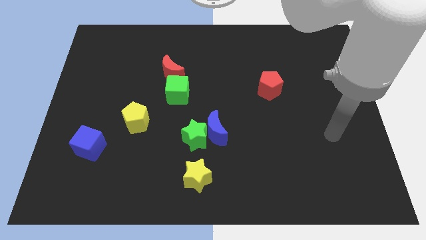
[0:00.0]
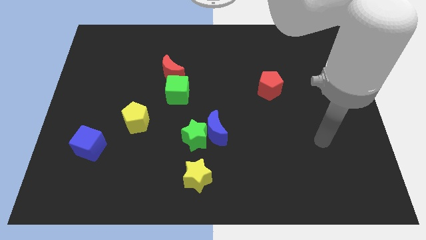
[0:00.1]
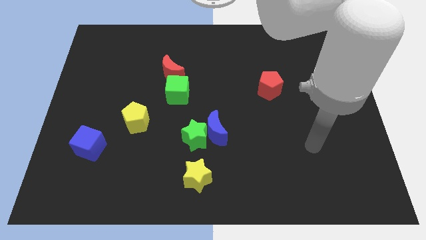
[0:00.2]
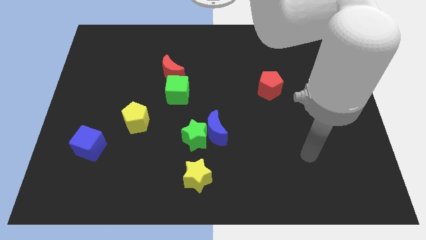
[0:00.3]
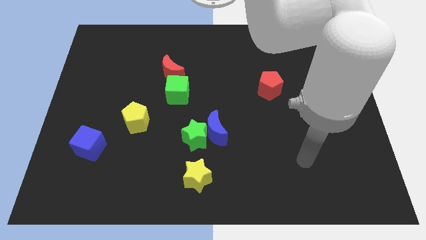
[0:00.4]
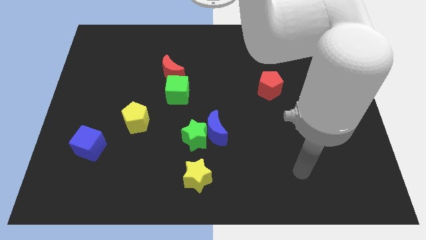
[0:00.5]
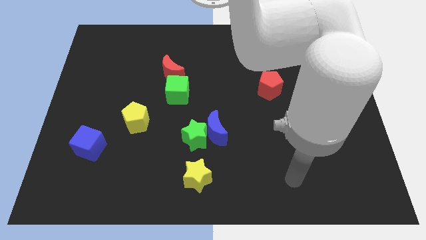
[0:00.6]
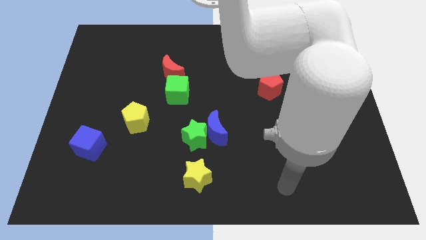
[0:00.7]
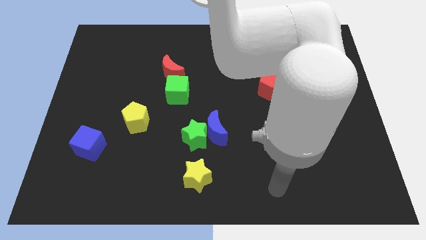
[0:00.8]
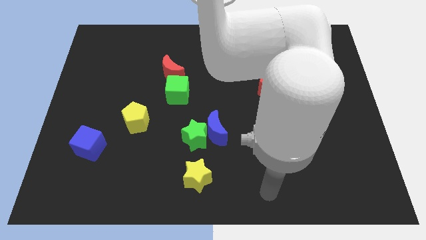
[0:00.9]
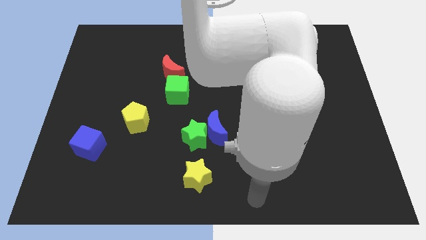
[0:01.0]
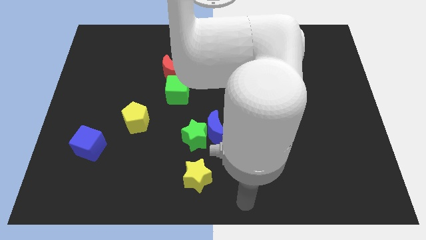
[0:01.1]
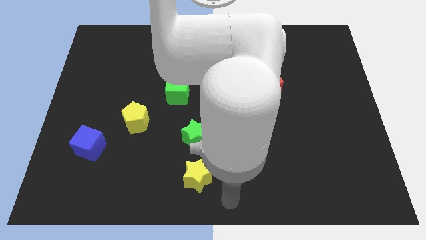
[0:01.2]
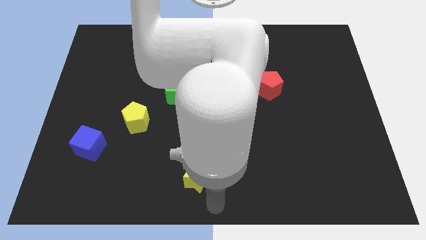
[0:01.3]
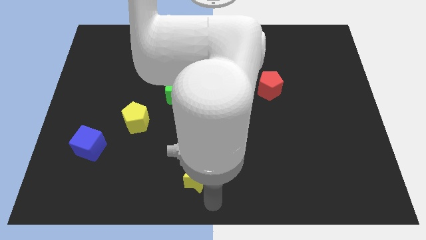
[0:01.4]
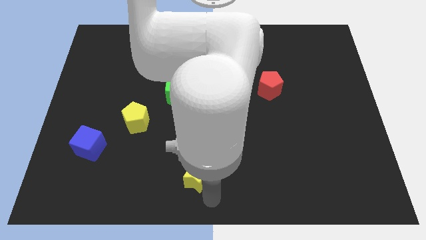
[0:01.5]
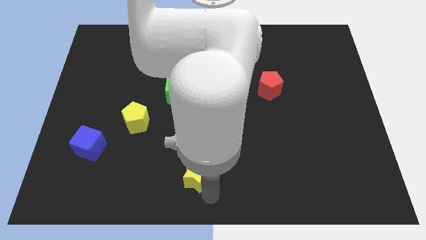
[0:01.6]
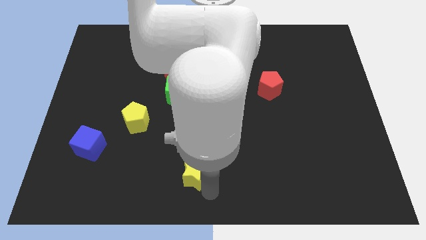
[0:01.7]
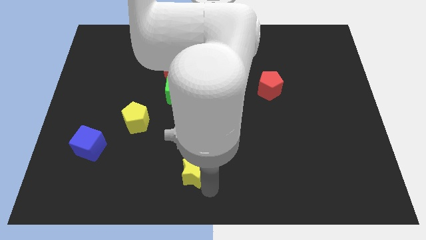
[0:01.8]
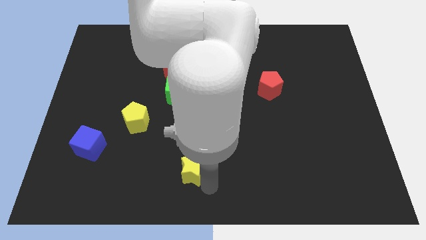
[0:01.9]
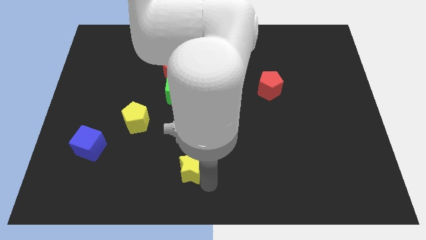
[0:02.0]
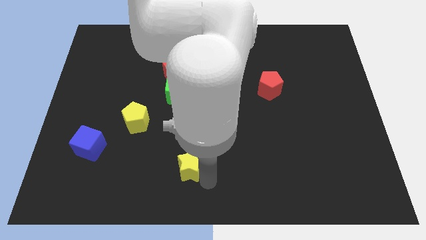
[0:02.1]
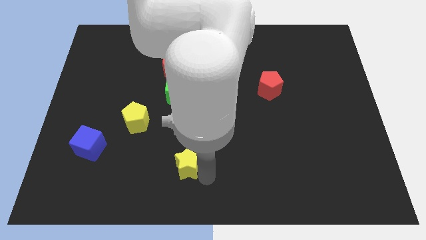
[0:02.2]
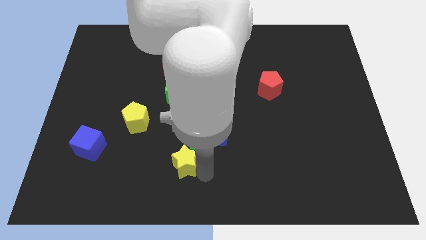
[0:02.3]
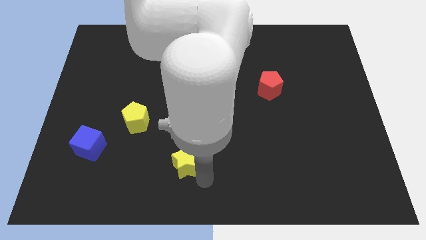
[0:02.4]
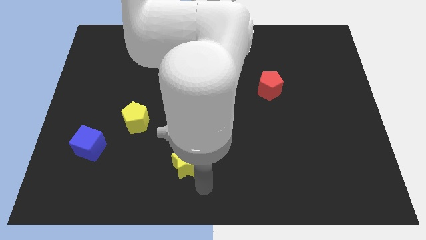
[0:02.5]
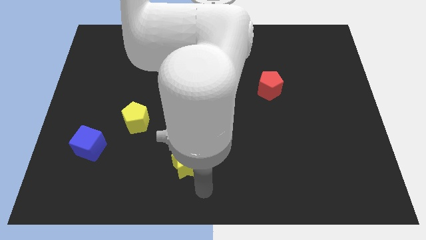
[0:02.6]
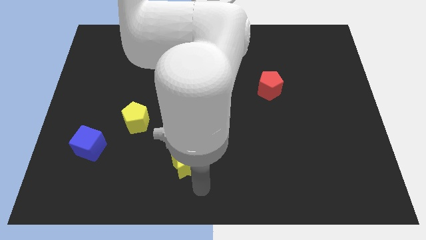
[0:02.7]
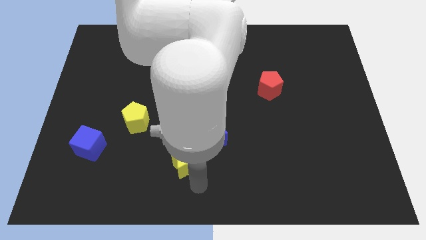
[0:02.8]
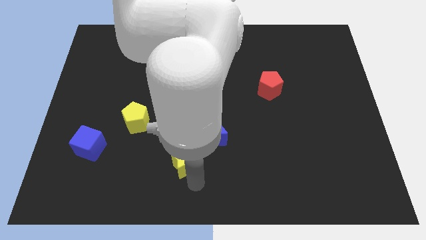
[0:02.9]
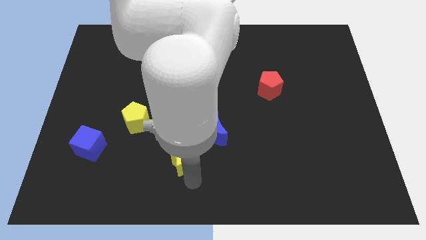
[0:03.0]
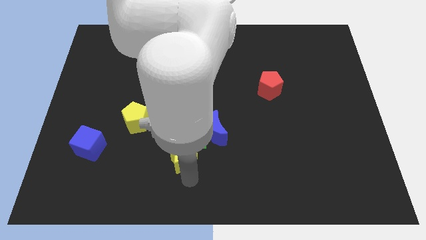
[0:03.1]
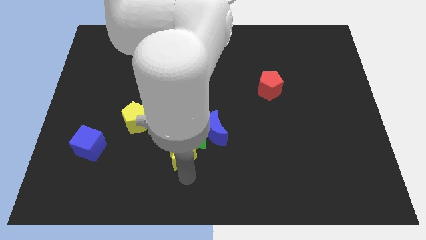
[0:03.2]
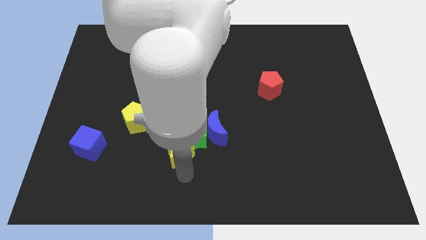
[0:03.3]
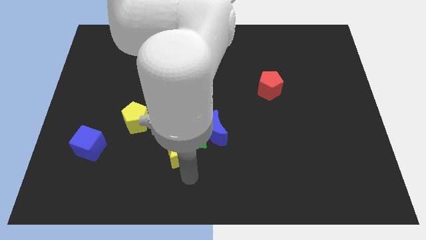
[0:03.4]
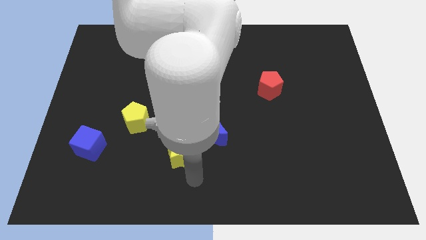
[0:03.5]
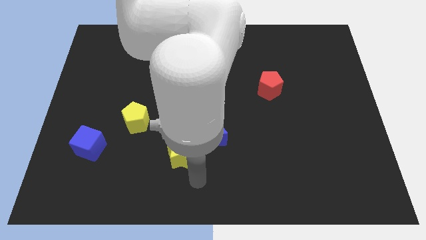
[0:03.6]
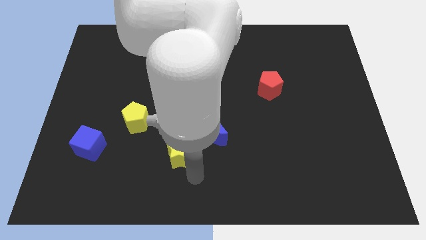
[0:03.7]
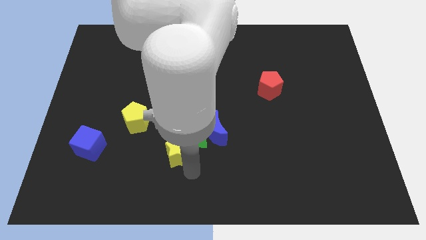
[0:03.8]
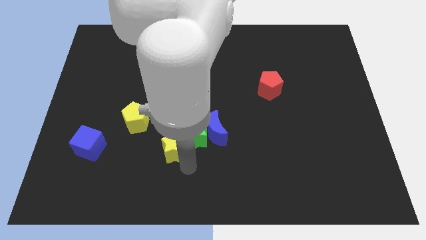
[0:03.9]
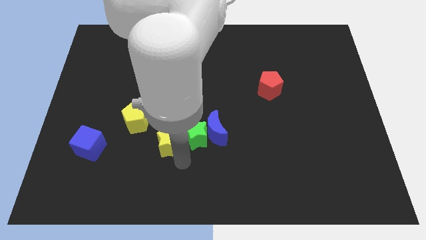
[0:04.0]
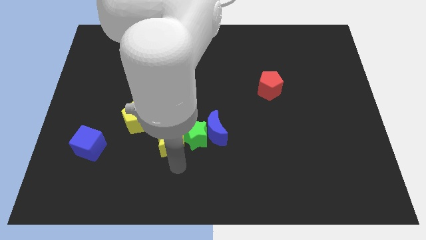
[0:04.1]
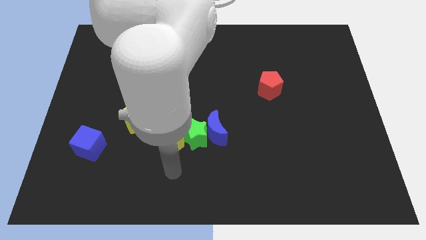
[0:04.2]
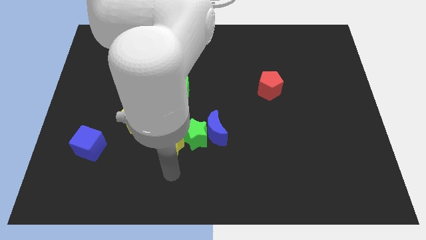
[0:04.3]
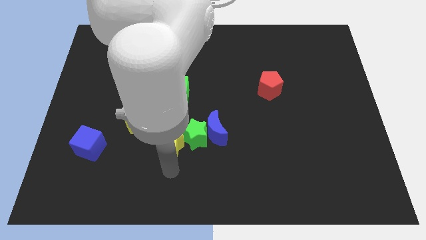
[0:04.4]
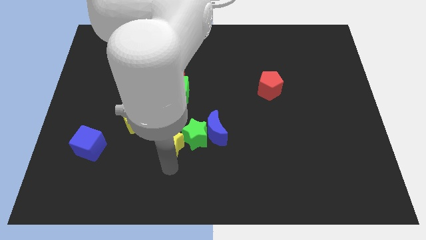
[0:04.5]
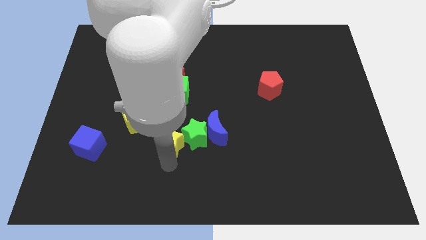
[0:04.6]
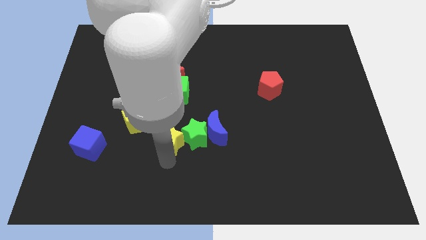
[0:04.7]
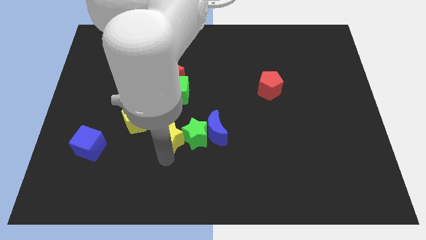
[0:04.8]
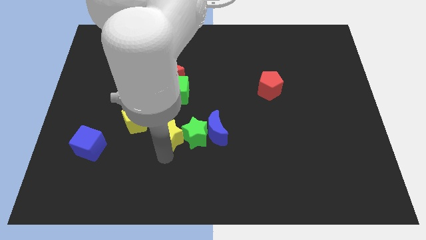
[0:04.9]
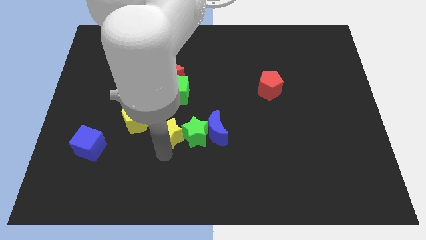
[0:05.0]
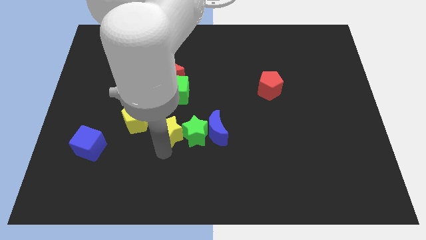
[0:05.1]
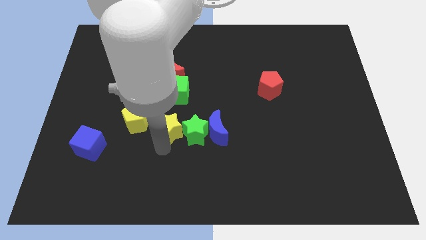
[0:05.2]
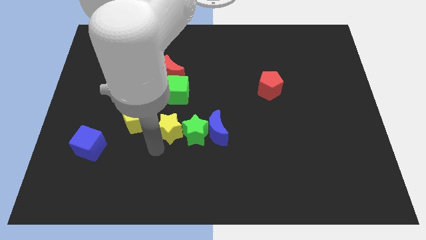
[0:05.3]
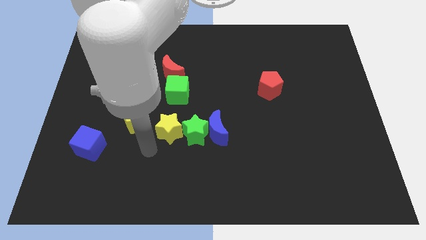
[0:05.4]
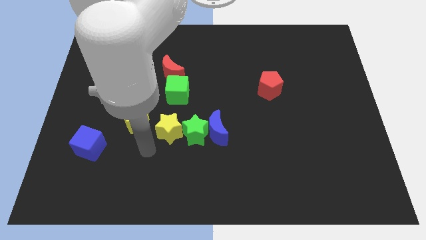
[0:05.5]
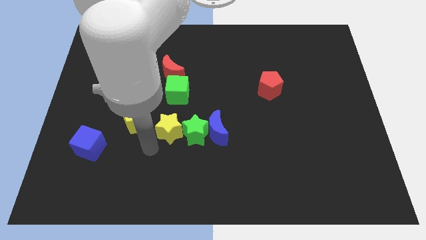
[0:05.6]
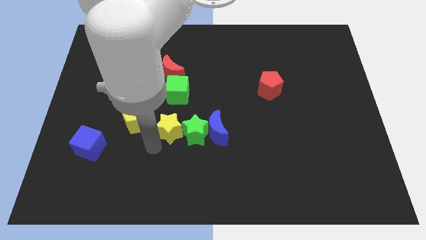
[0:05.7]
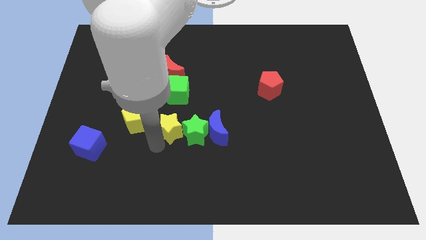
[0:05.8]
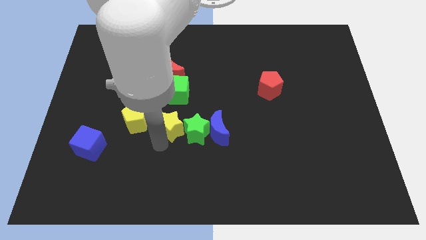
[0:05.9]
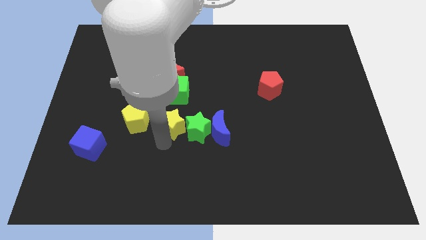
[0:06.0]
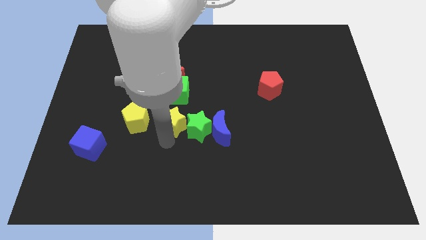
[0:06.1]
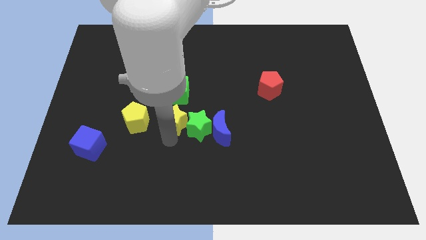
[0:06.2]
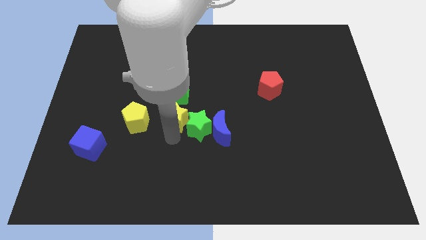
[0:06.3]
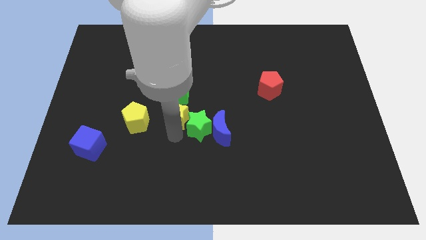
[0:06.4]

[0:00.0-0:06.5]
put the yellow star to the top left side of the blue moon
